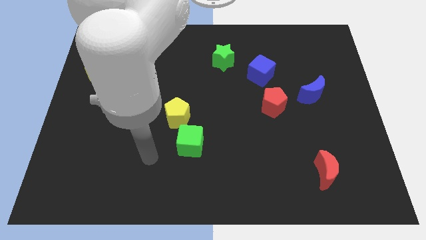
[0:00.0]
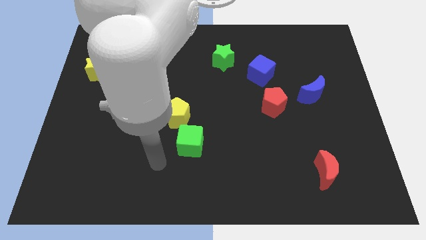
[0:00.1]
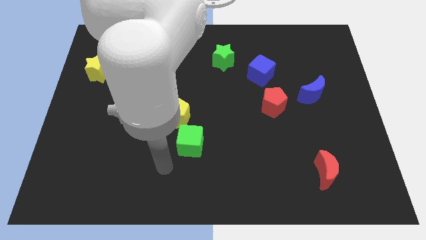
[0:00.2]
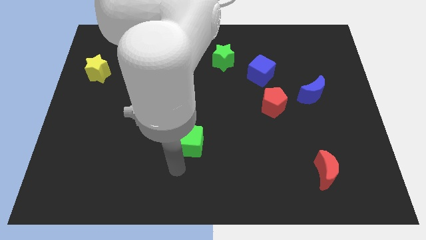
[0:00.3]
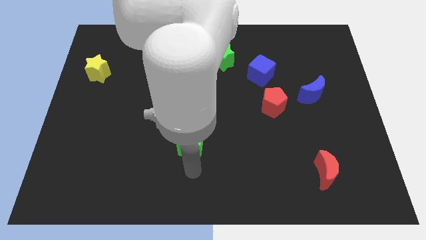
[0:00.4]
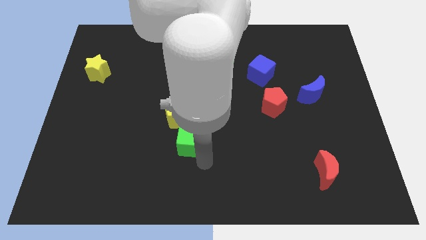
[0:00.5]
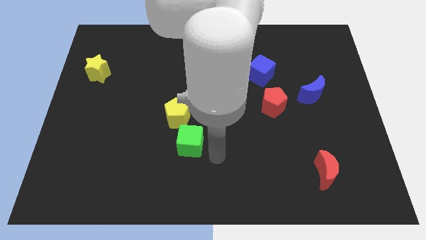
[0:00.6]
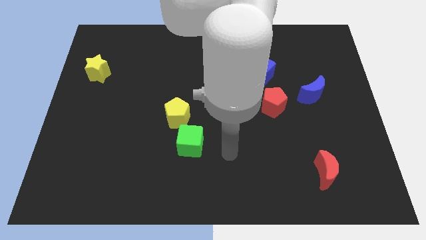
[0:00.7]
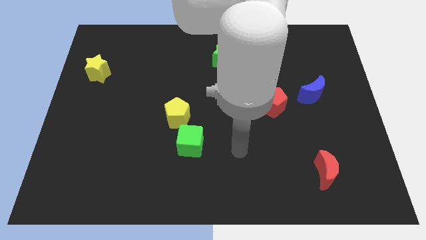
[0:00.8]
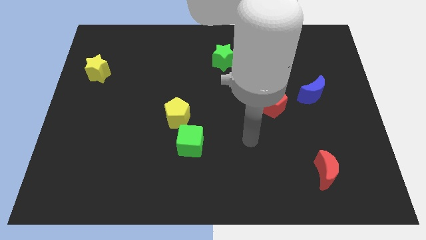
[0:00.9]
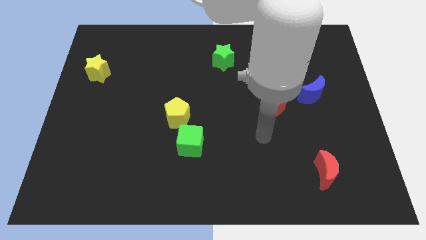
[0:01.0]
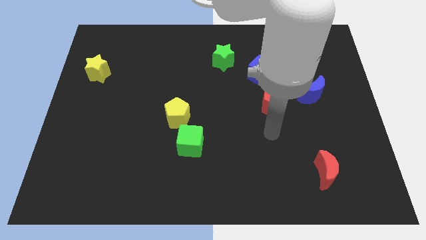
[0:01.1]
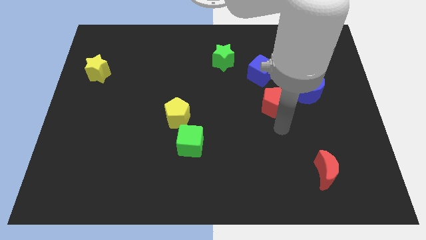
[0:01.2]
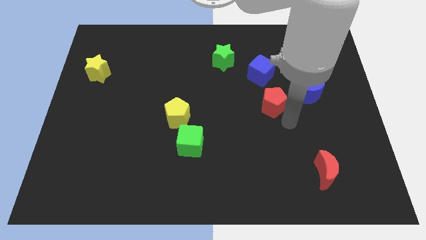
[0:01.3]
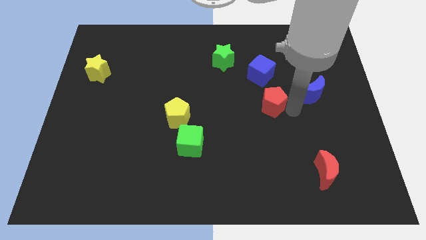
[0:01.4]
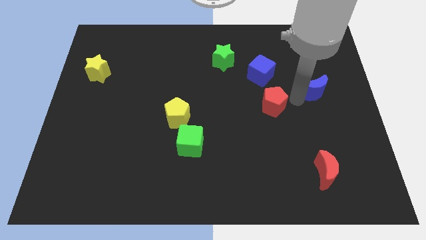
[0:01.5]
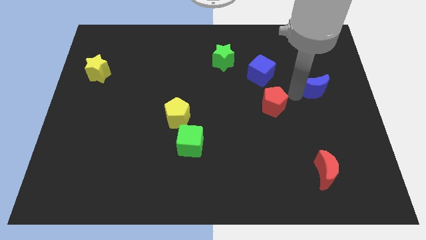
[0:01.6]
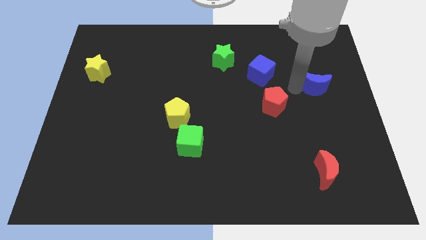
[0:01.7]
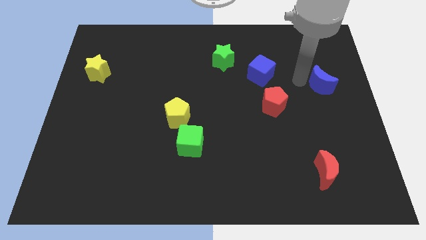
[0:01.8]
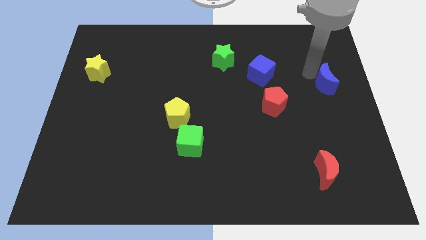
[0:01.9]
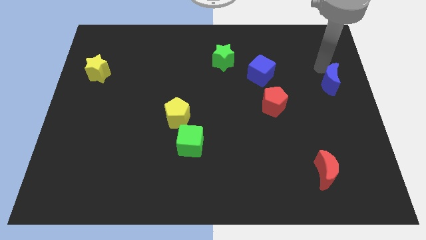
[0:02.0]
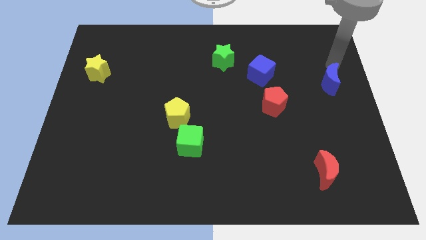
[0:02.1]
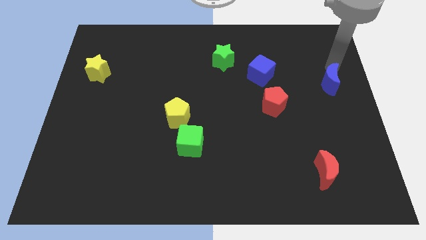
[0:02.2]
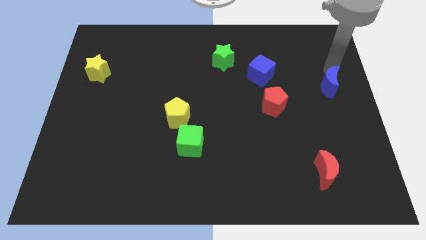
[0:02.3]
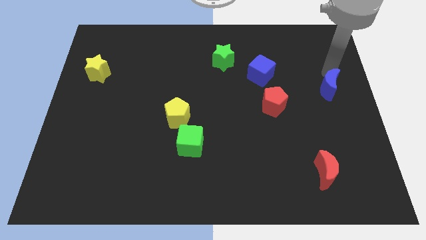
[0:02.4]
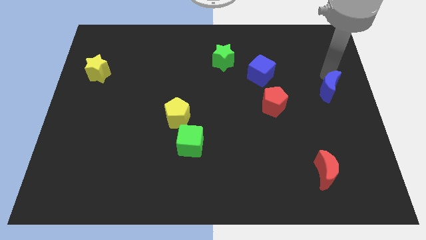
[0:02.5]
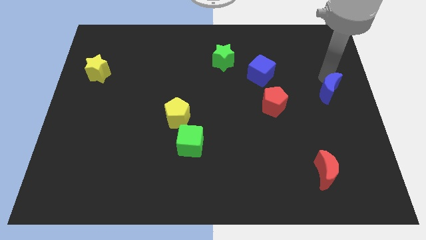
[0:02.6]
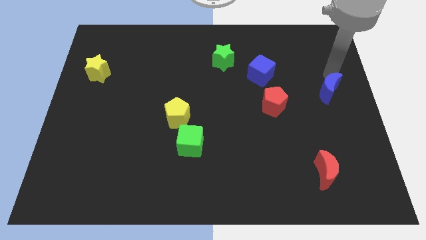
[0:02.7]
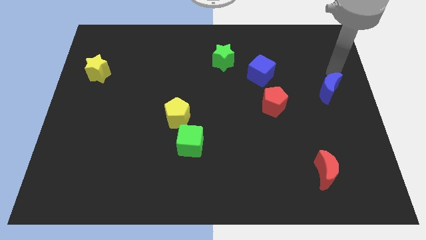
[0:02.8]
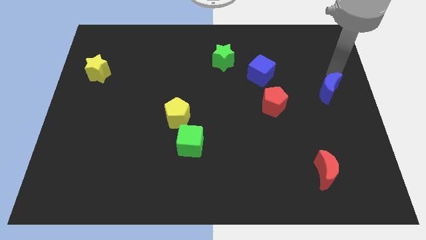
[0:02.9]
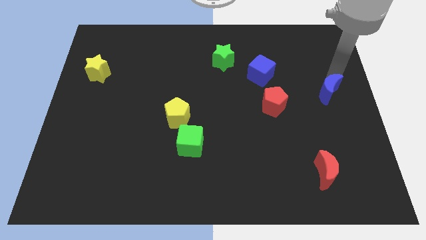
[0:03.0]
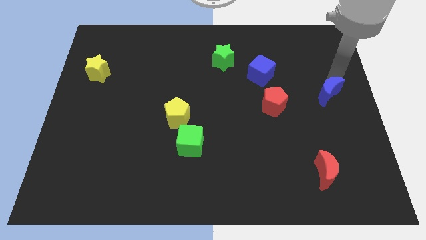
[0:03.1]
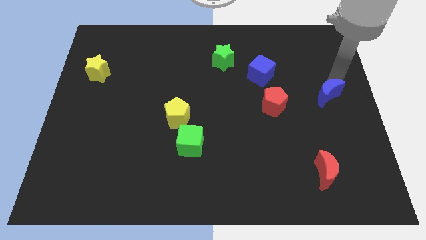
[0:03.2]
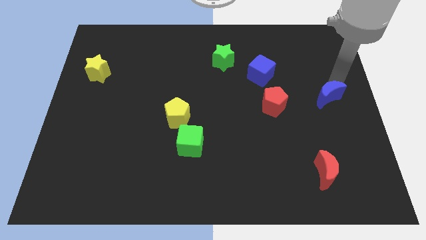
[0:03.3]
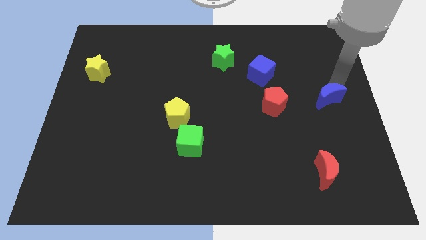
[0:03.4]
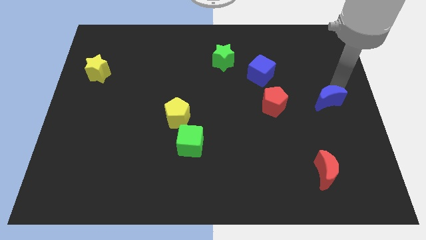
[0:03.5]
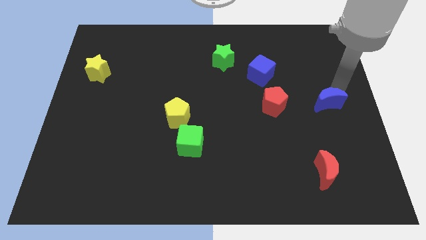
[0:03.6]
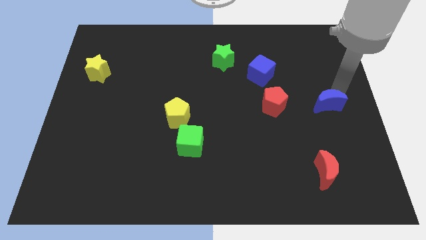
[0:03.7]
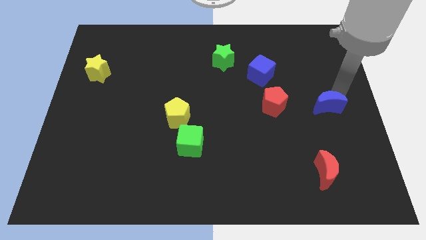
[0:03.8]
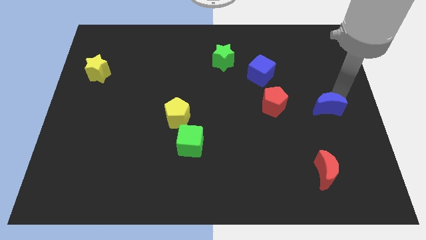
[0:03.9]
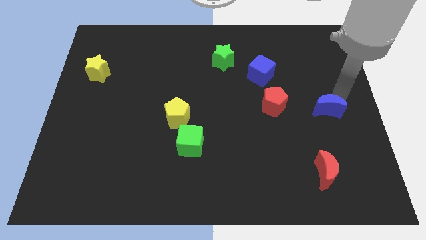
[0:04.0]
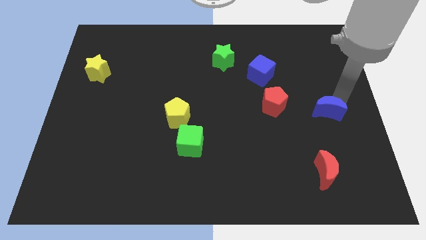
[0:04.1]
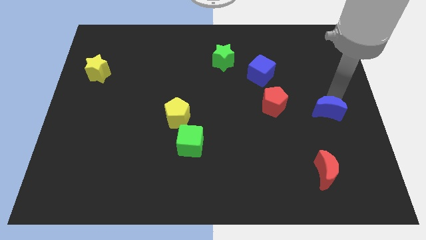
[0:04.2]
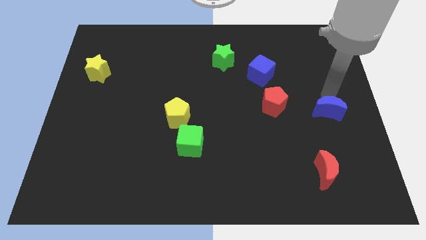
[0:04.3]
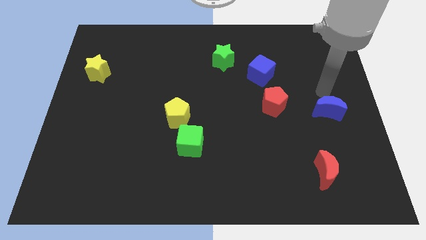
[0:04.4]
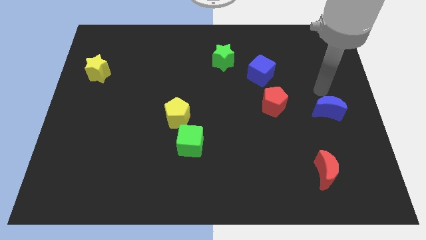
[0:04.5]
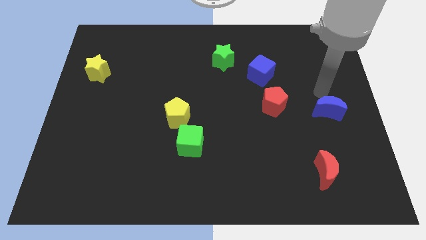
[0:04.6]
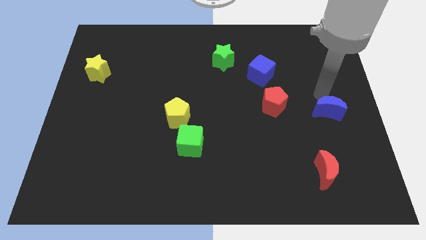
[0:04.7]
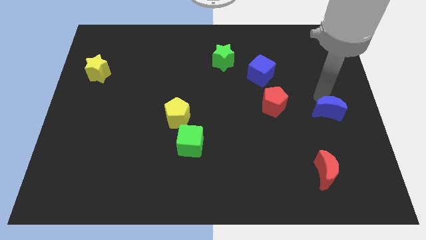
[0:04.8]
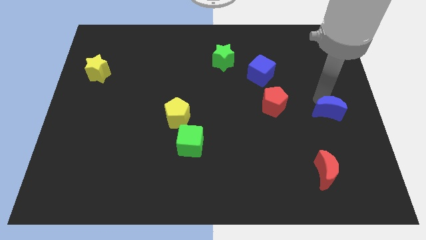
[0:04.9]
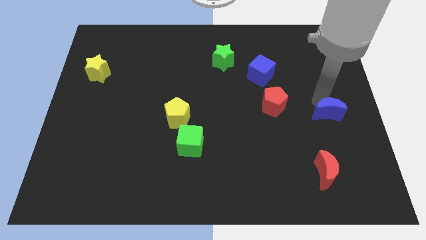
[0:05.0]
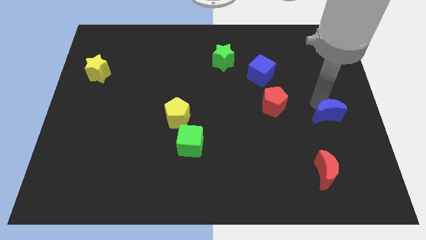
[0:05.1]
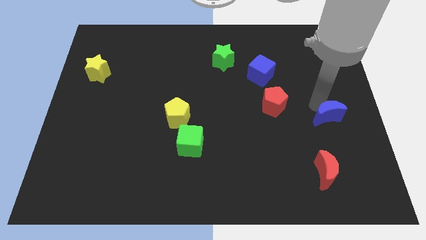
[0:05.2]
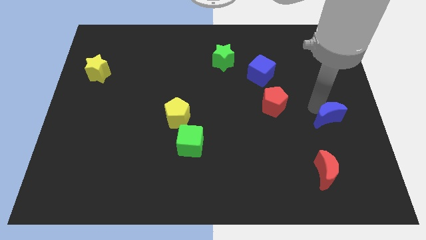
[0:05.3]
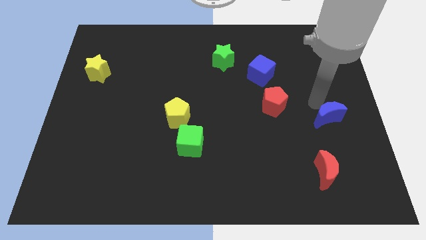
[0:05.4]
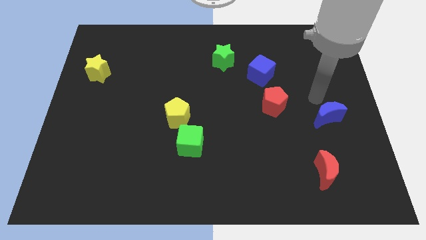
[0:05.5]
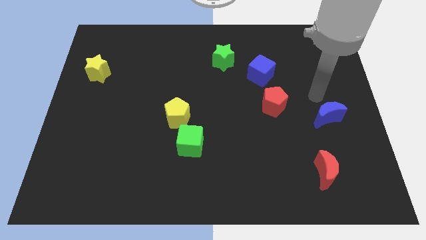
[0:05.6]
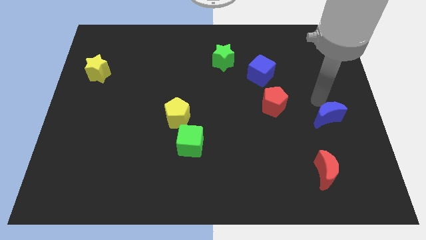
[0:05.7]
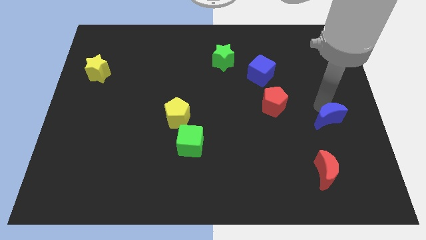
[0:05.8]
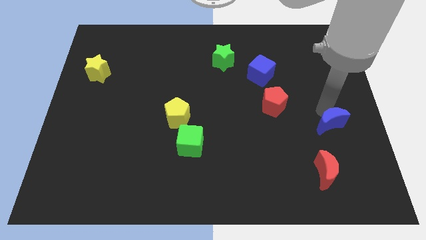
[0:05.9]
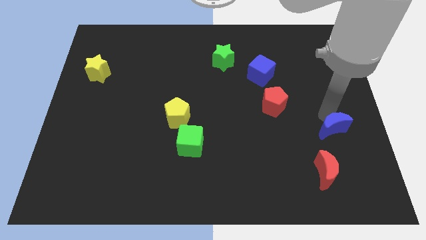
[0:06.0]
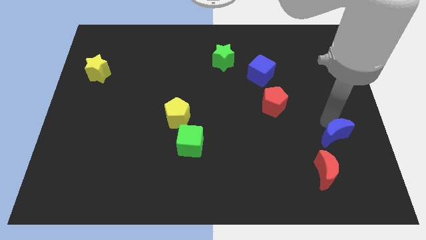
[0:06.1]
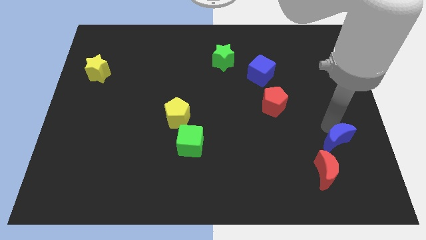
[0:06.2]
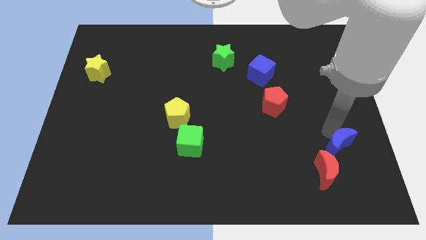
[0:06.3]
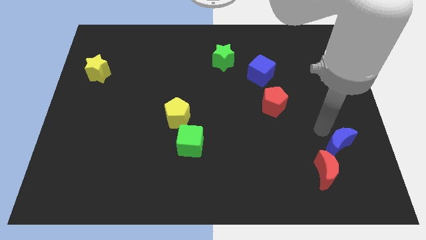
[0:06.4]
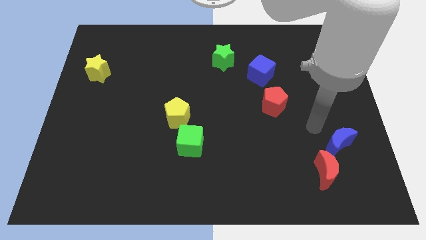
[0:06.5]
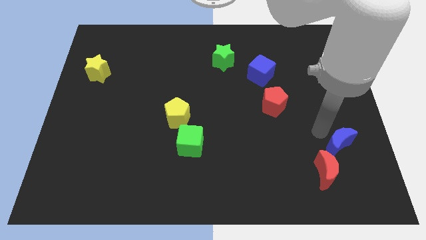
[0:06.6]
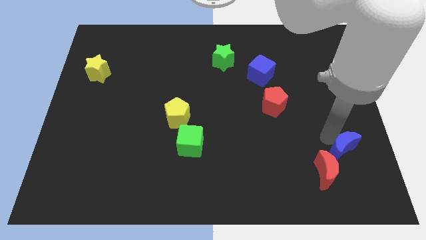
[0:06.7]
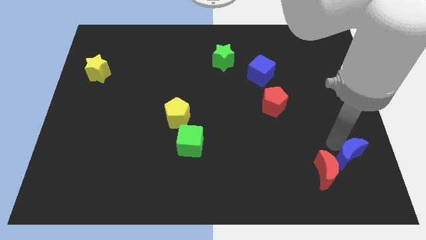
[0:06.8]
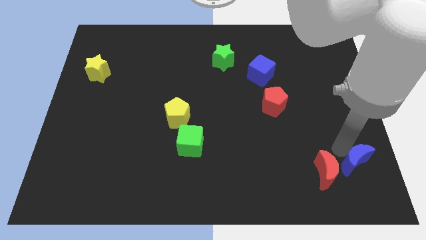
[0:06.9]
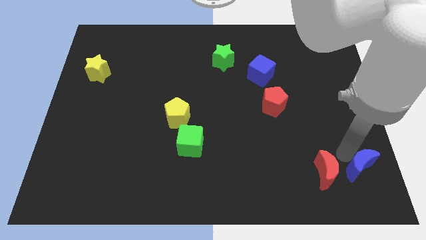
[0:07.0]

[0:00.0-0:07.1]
slide the blue moon to the bottom right corner

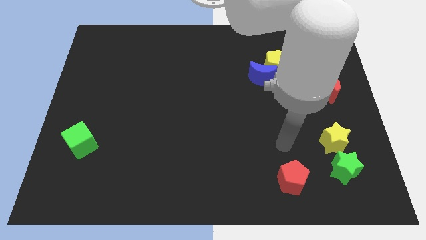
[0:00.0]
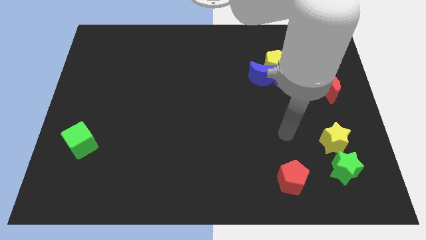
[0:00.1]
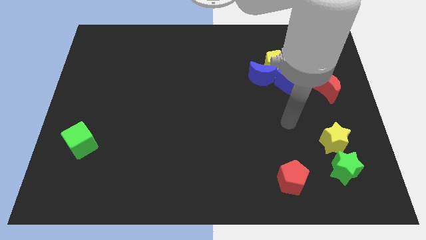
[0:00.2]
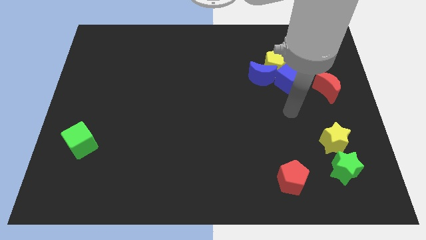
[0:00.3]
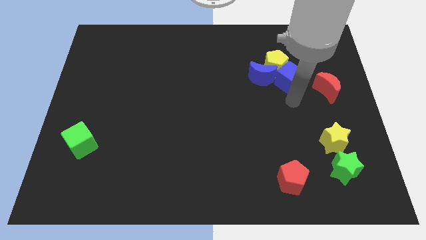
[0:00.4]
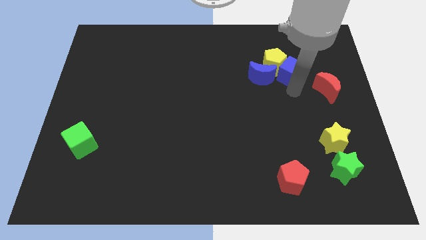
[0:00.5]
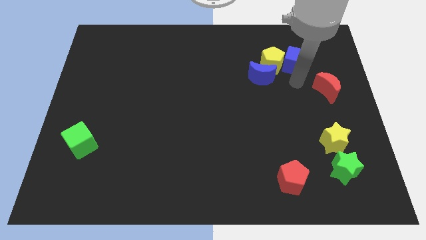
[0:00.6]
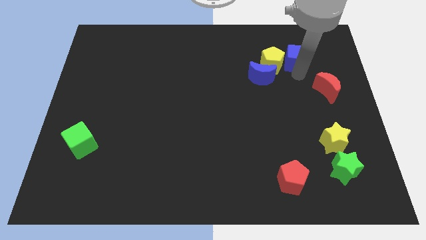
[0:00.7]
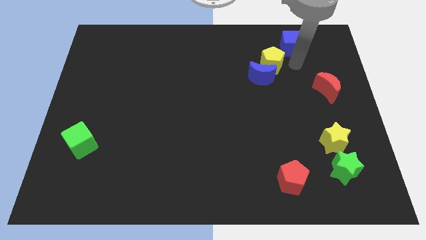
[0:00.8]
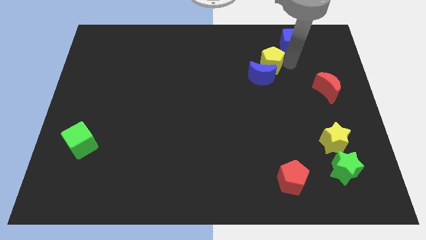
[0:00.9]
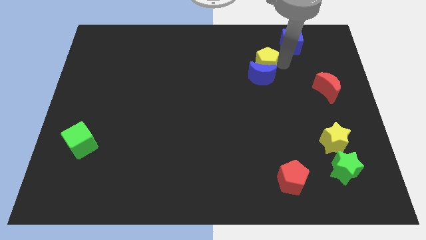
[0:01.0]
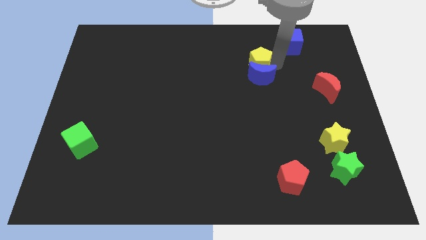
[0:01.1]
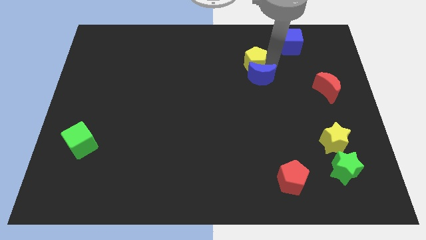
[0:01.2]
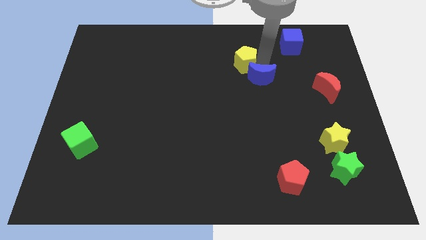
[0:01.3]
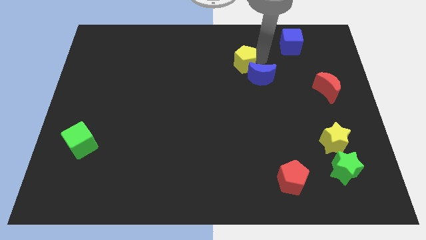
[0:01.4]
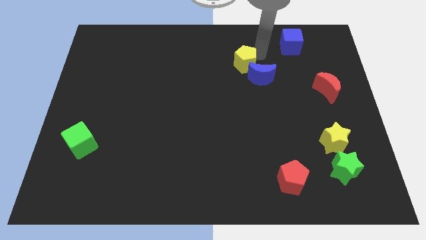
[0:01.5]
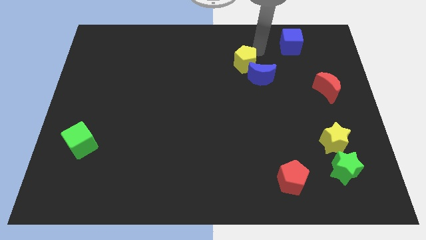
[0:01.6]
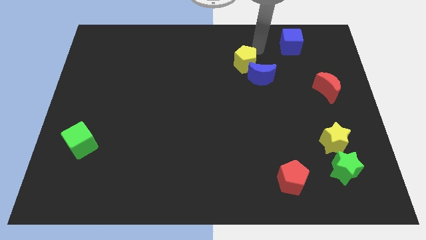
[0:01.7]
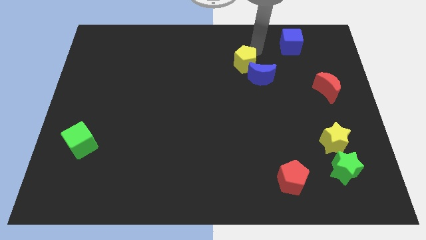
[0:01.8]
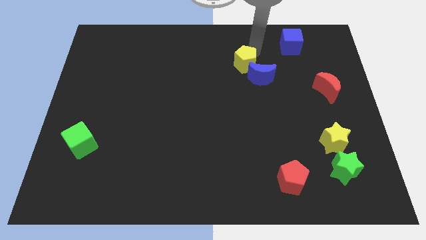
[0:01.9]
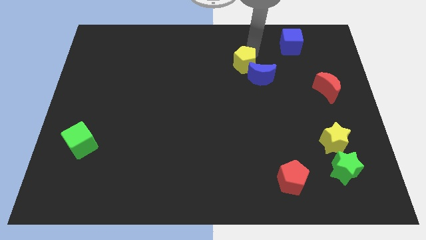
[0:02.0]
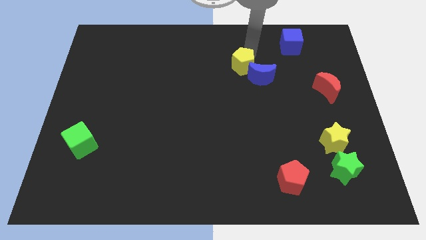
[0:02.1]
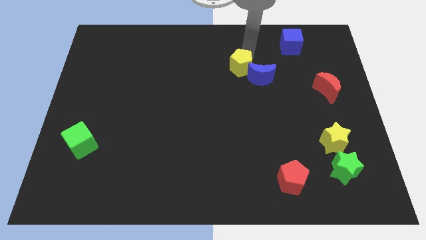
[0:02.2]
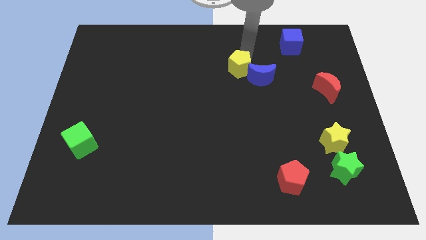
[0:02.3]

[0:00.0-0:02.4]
move the yellow pentagon to the middle of the board
